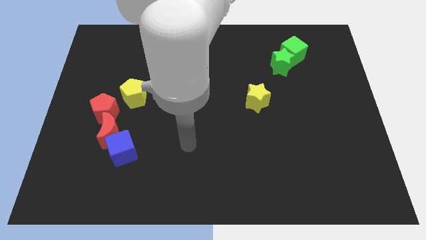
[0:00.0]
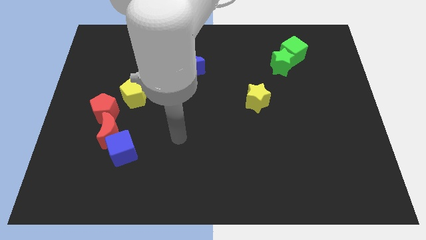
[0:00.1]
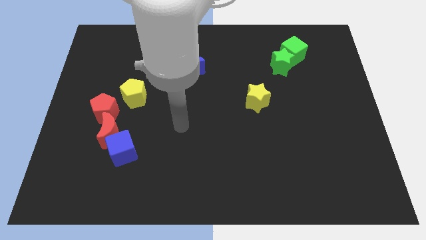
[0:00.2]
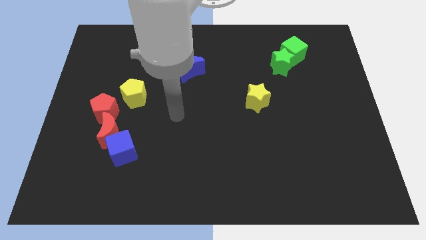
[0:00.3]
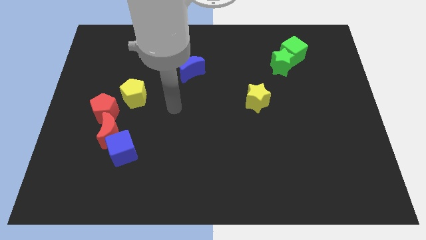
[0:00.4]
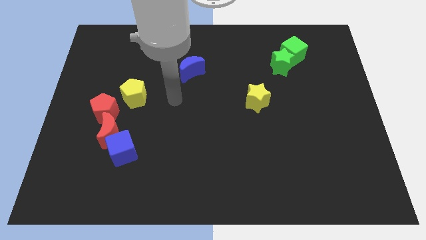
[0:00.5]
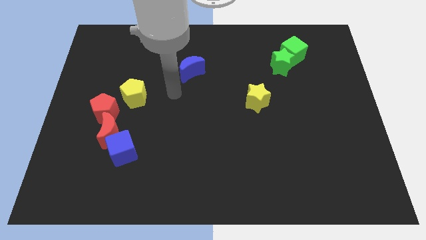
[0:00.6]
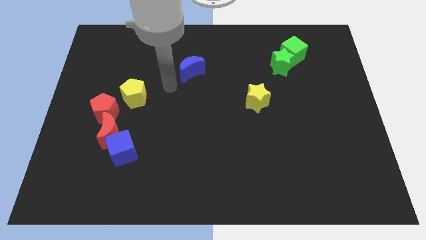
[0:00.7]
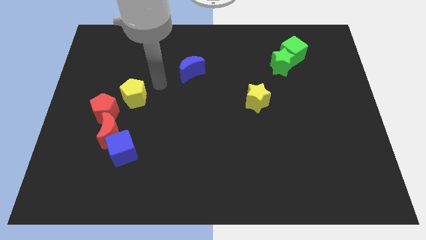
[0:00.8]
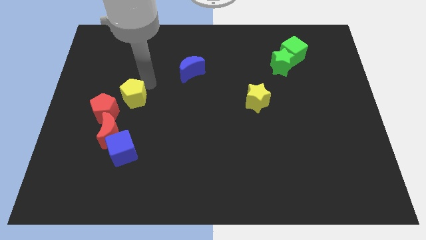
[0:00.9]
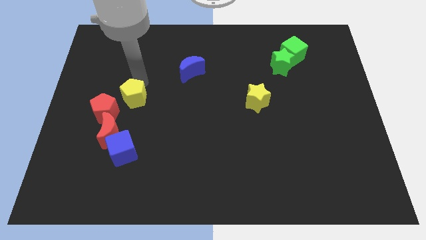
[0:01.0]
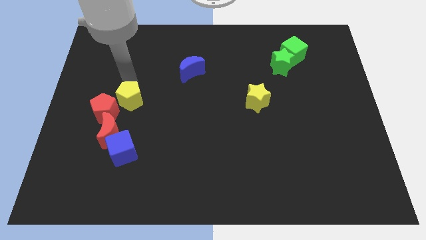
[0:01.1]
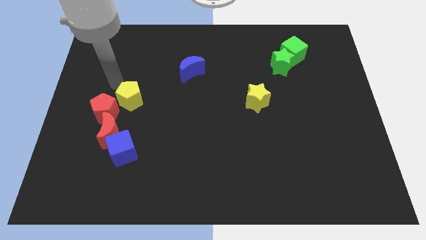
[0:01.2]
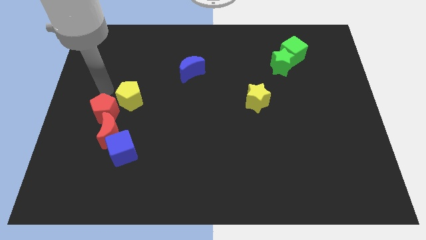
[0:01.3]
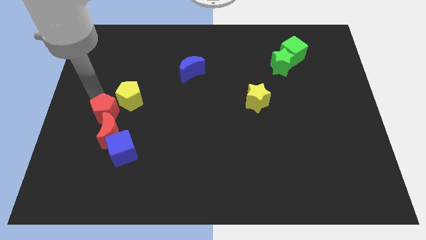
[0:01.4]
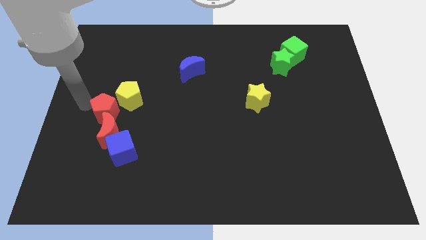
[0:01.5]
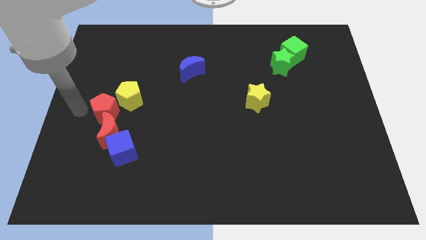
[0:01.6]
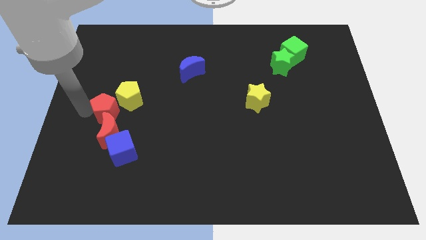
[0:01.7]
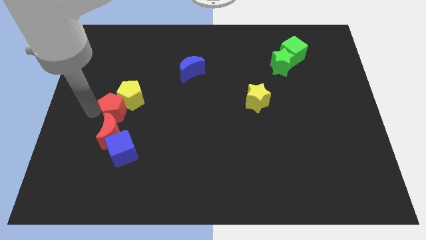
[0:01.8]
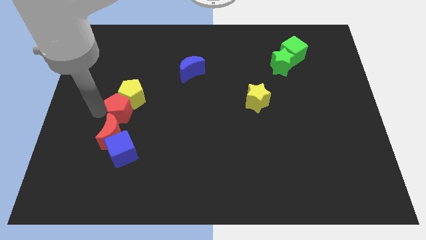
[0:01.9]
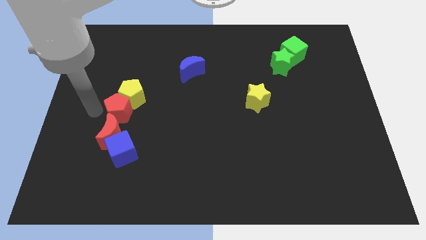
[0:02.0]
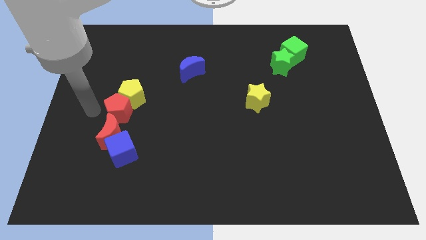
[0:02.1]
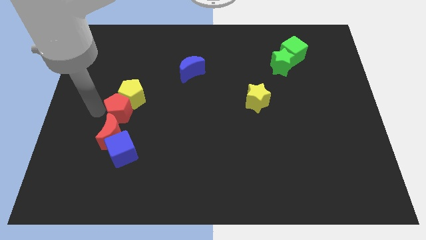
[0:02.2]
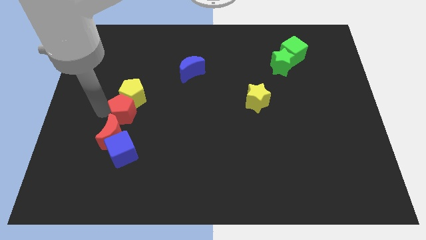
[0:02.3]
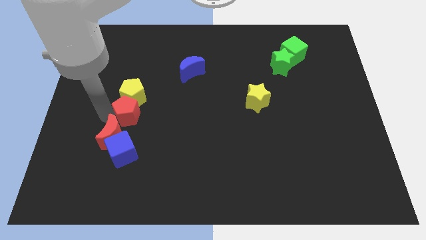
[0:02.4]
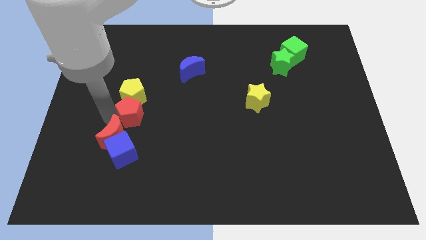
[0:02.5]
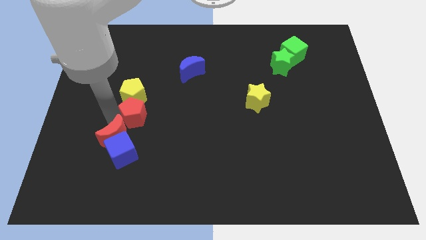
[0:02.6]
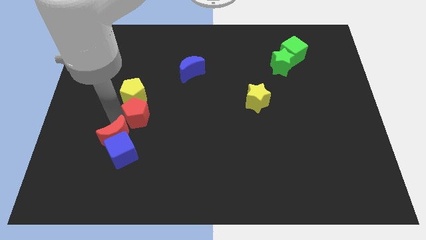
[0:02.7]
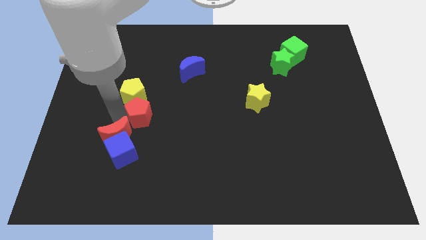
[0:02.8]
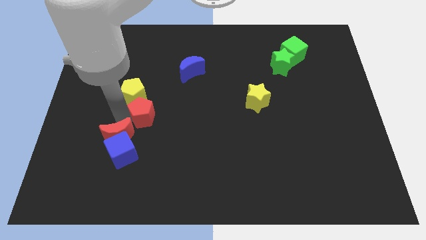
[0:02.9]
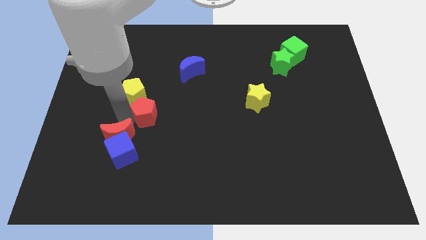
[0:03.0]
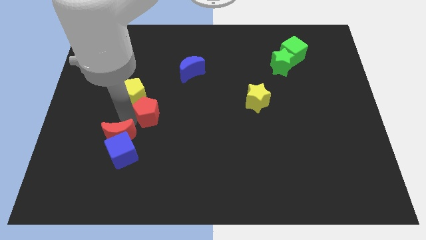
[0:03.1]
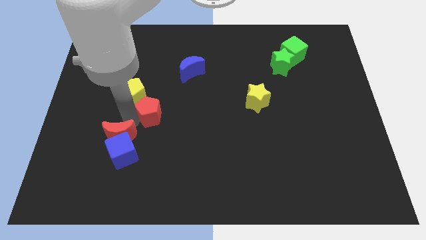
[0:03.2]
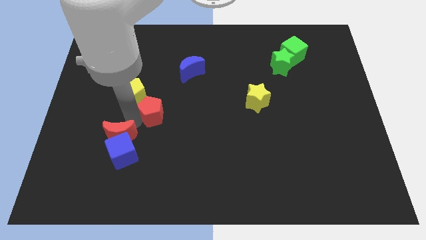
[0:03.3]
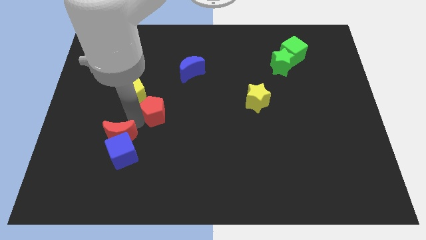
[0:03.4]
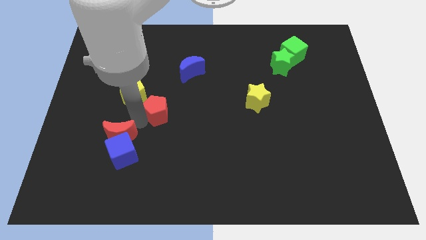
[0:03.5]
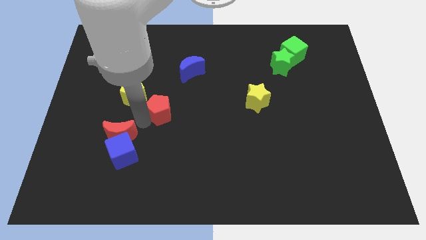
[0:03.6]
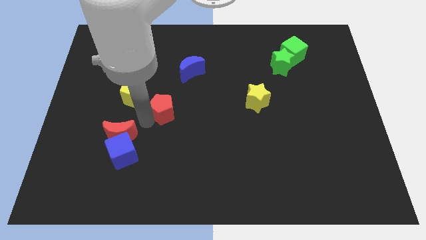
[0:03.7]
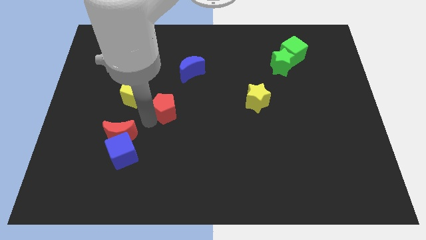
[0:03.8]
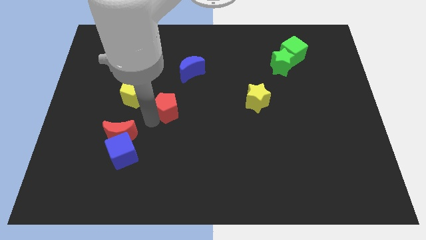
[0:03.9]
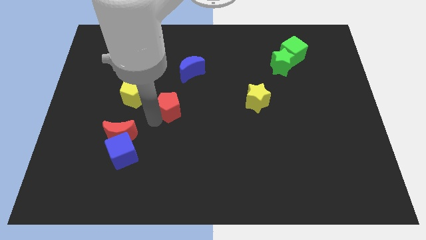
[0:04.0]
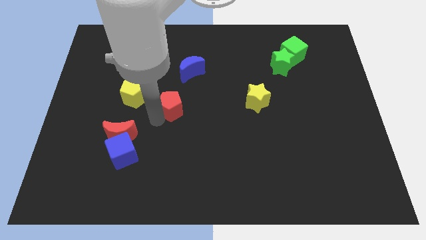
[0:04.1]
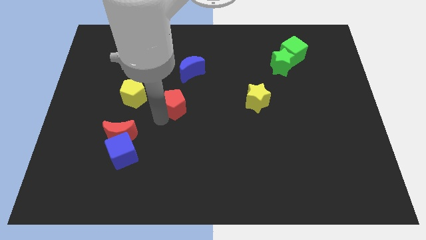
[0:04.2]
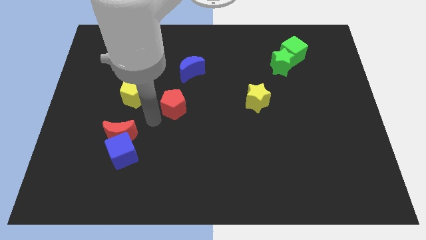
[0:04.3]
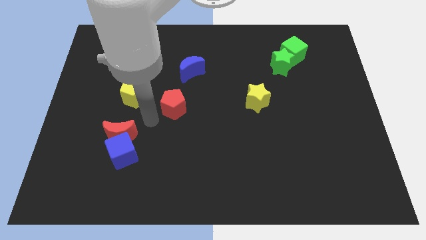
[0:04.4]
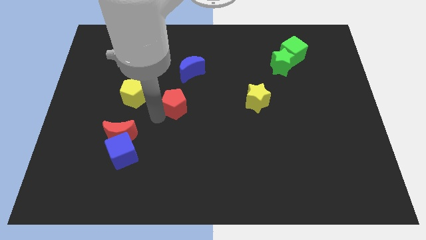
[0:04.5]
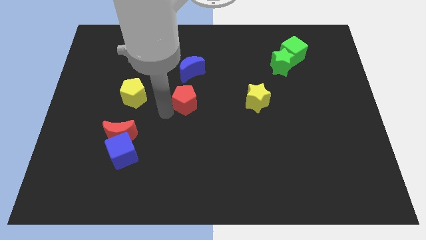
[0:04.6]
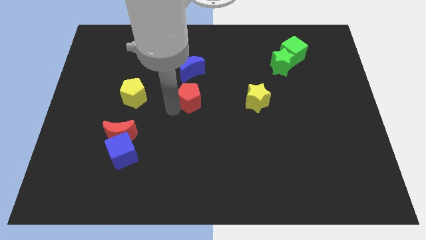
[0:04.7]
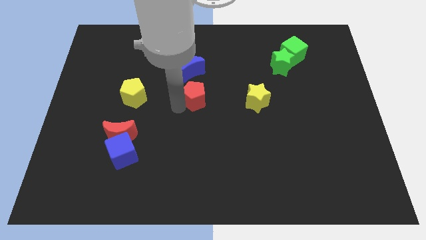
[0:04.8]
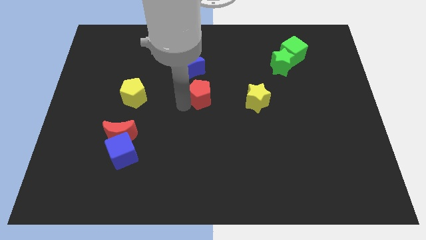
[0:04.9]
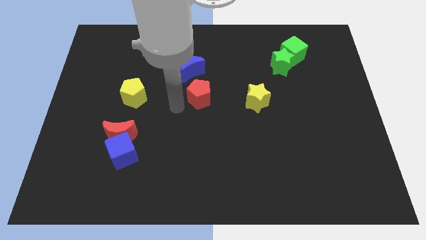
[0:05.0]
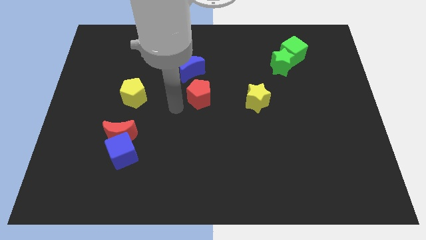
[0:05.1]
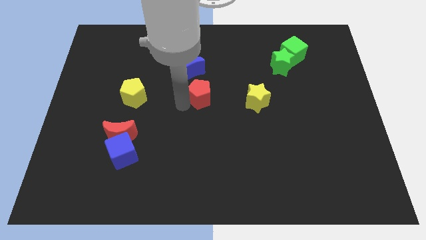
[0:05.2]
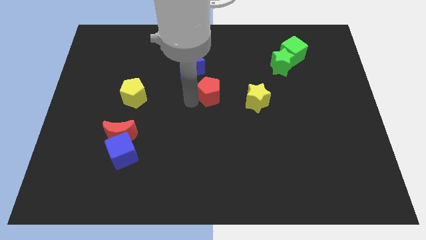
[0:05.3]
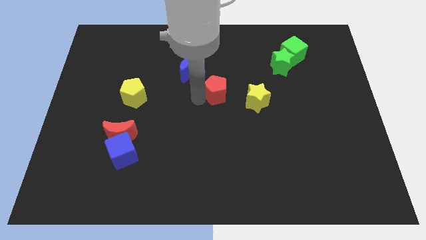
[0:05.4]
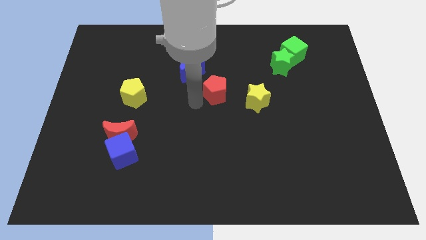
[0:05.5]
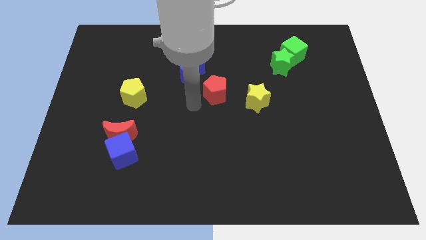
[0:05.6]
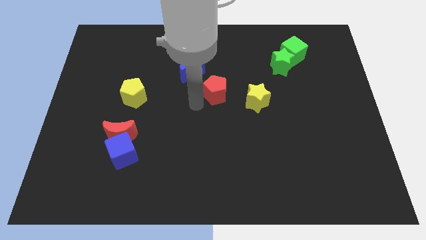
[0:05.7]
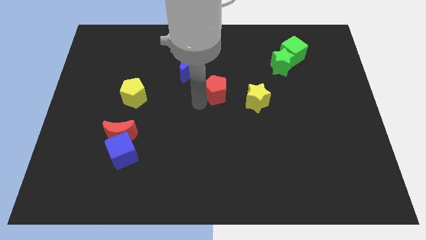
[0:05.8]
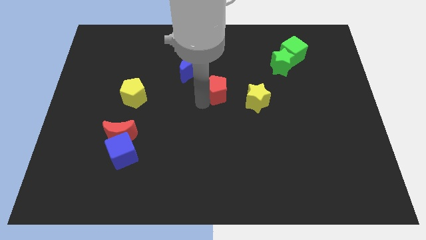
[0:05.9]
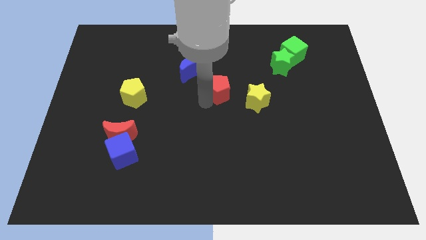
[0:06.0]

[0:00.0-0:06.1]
slide the red pentagon to the top left side of the yellow star

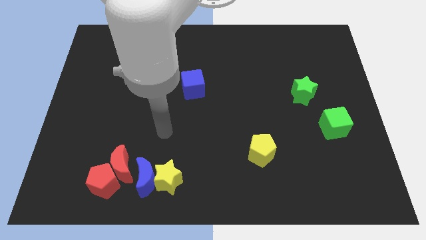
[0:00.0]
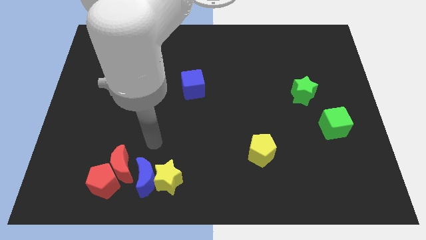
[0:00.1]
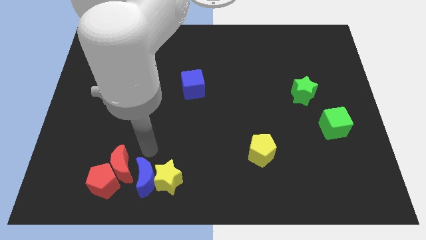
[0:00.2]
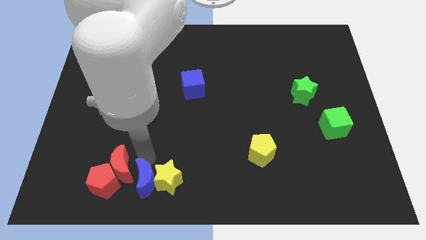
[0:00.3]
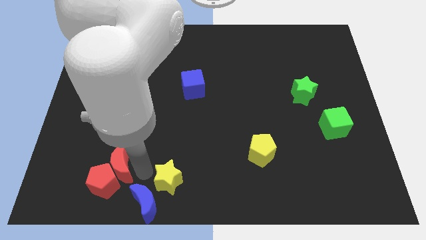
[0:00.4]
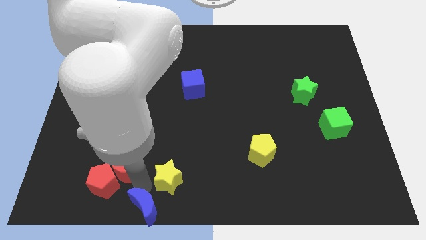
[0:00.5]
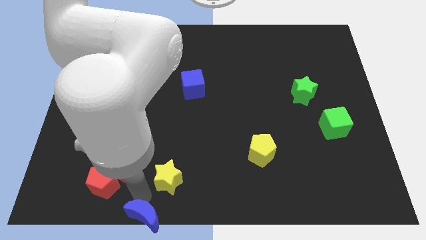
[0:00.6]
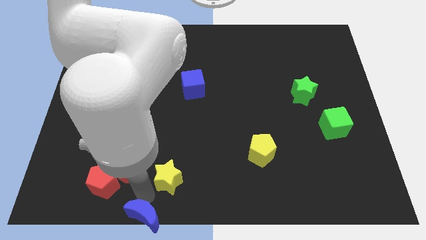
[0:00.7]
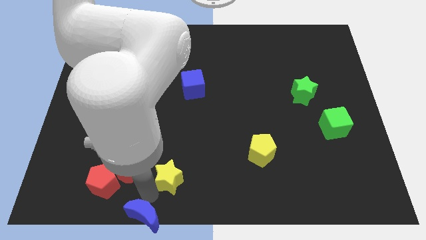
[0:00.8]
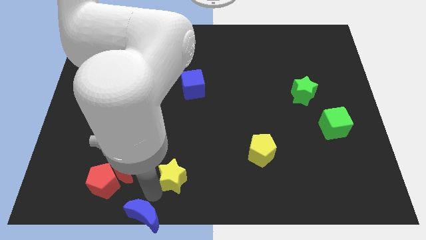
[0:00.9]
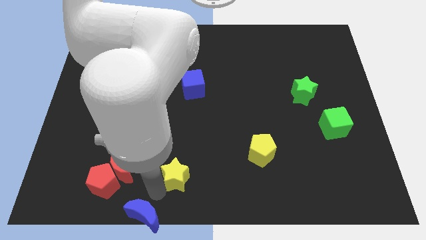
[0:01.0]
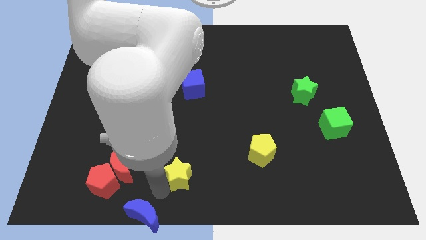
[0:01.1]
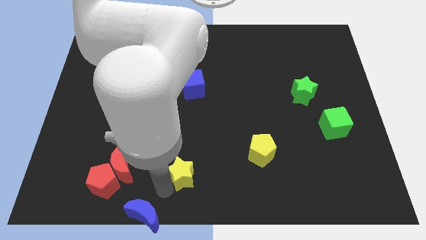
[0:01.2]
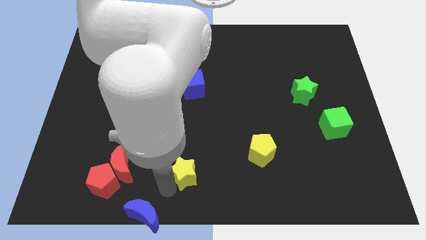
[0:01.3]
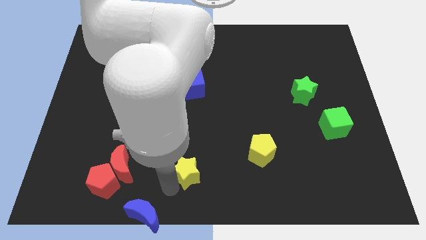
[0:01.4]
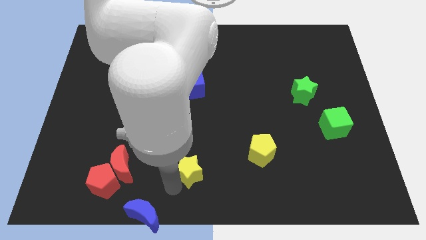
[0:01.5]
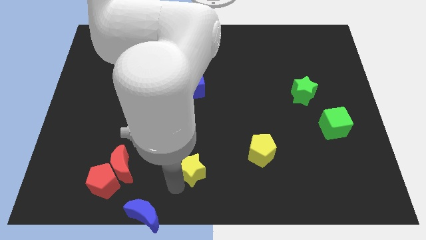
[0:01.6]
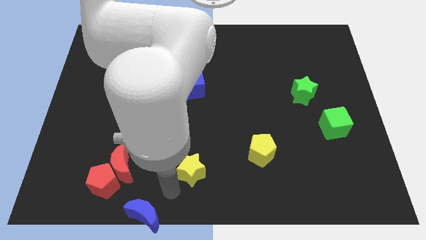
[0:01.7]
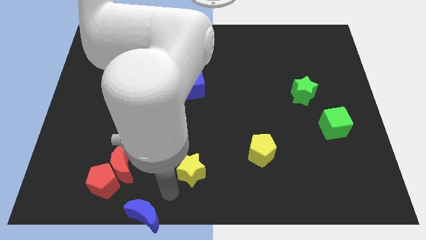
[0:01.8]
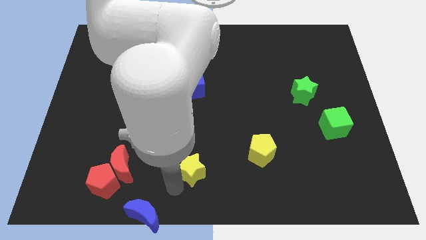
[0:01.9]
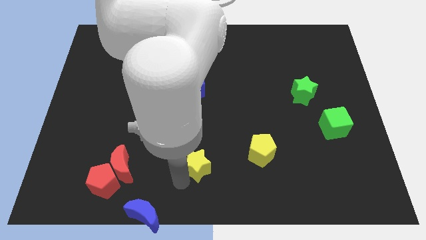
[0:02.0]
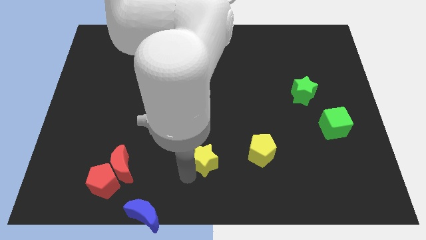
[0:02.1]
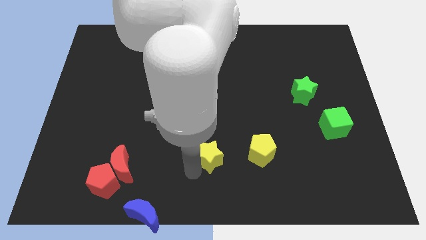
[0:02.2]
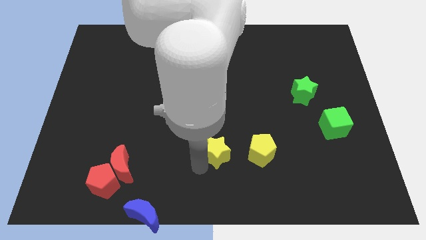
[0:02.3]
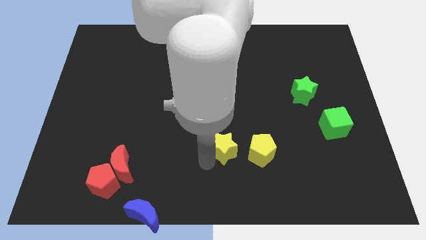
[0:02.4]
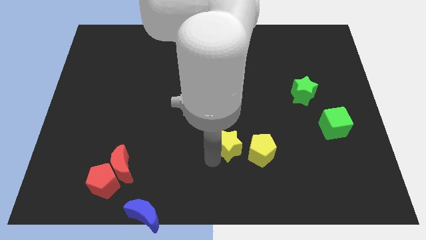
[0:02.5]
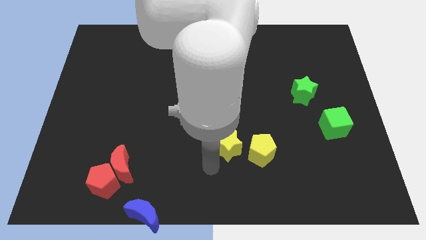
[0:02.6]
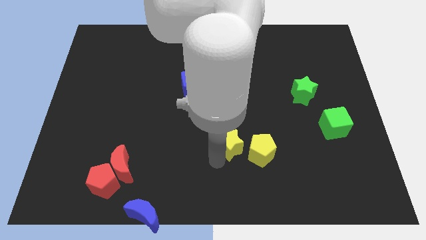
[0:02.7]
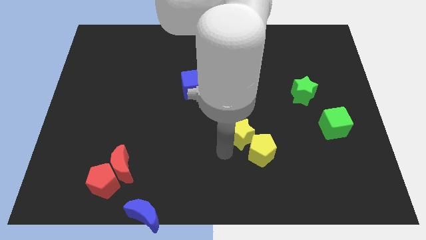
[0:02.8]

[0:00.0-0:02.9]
put the yellow star to the top side of the yellow pentagon
